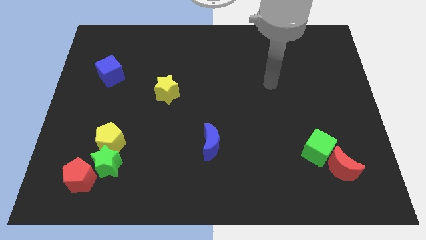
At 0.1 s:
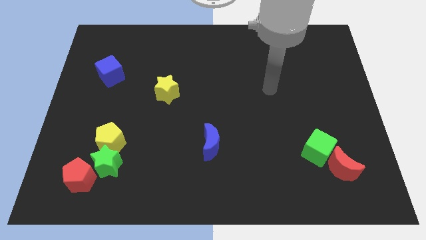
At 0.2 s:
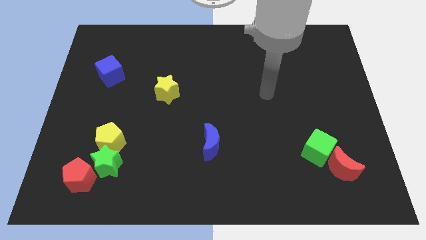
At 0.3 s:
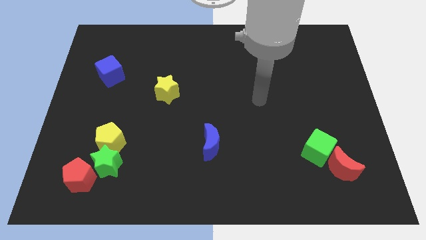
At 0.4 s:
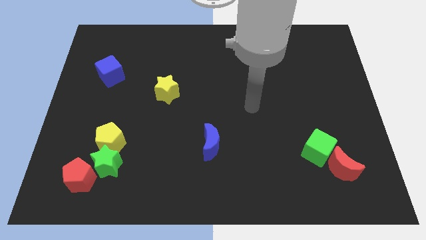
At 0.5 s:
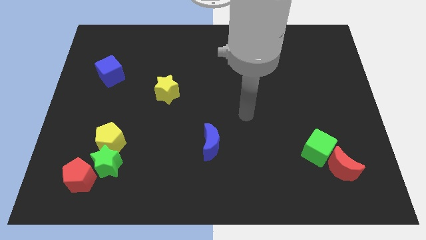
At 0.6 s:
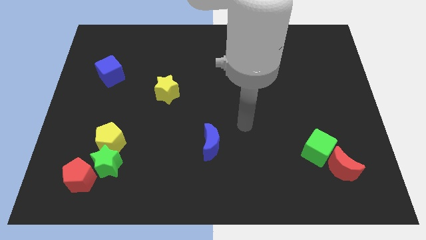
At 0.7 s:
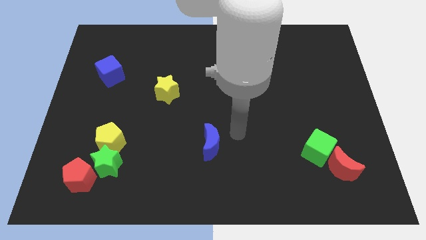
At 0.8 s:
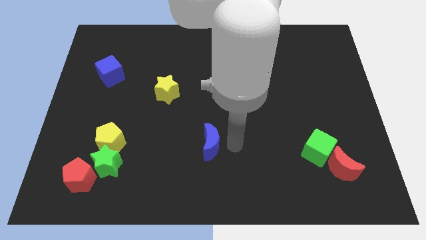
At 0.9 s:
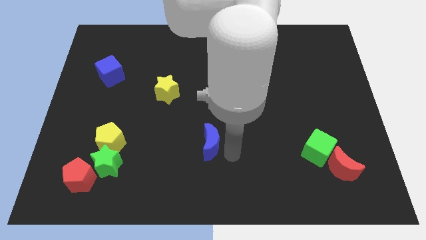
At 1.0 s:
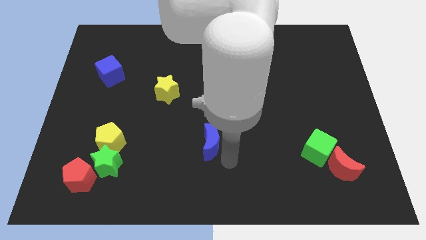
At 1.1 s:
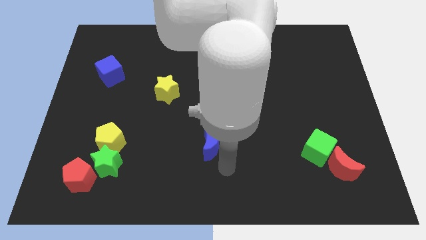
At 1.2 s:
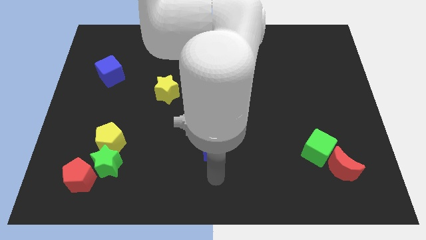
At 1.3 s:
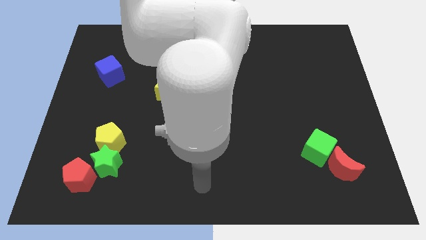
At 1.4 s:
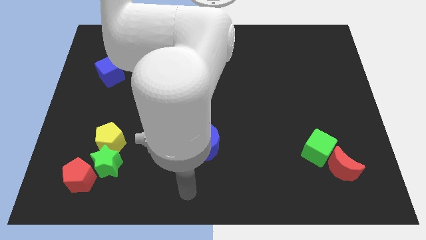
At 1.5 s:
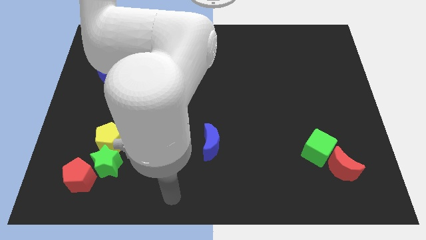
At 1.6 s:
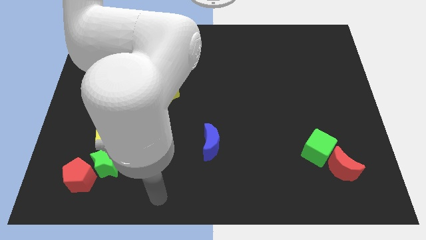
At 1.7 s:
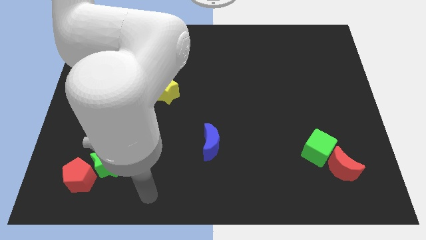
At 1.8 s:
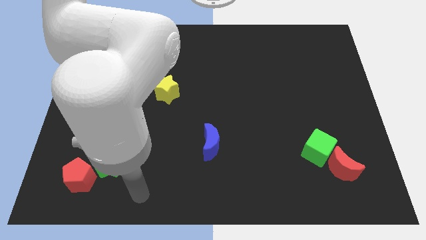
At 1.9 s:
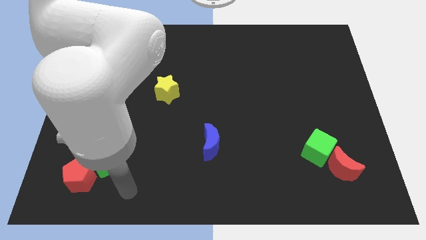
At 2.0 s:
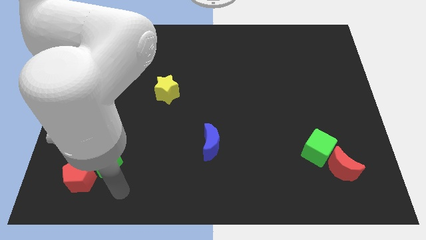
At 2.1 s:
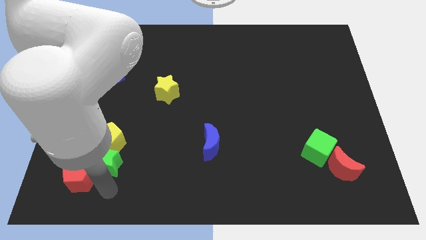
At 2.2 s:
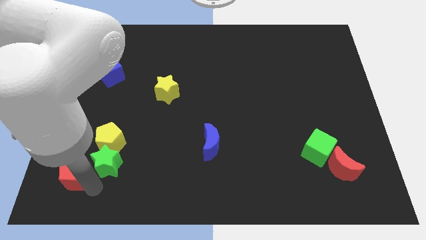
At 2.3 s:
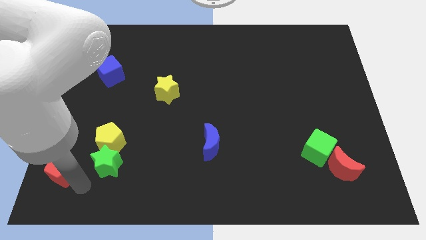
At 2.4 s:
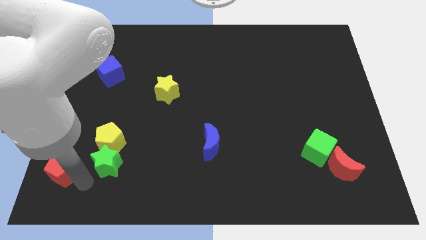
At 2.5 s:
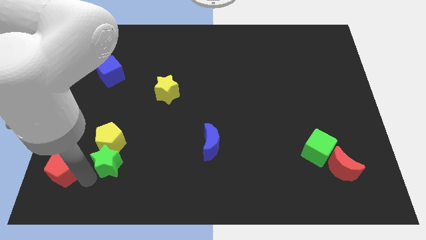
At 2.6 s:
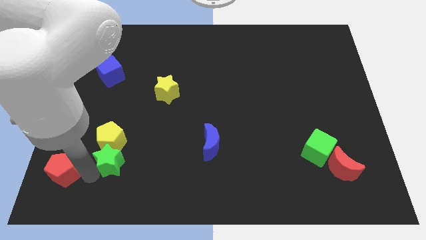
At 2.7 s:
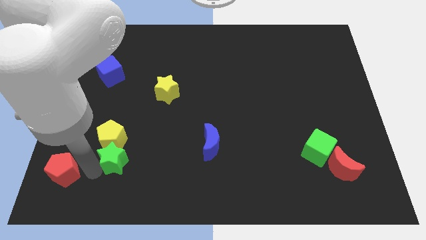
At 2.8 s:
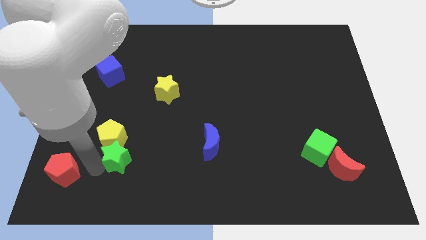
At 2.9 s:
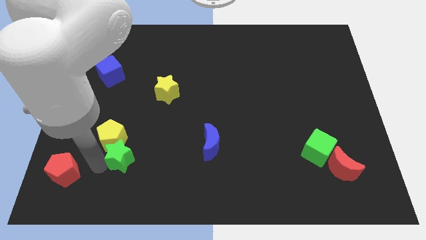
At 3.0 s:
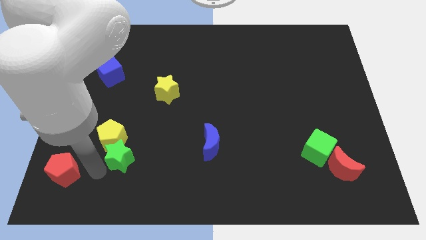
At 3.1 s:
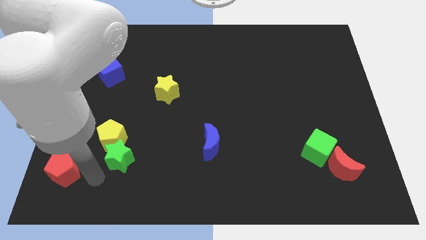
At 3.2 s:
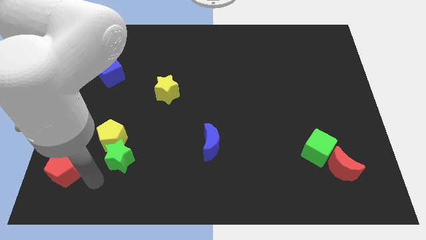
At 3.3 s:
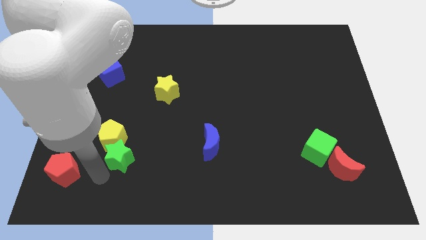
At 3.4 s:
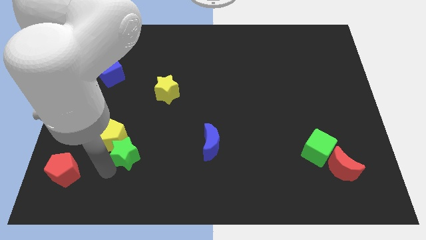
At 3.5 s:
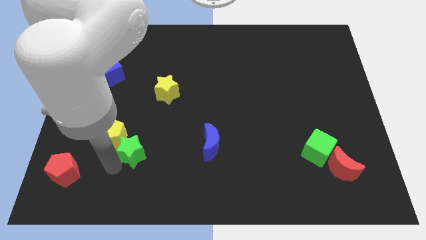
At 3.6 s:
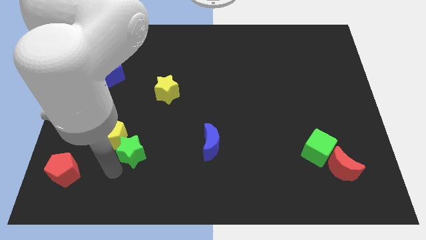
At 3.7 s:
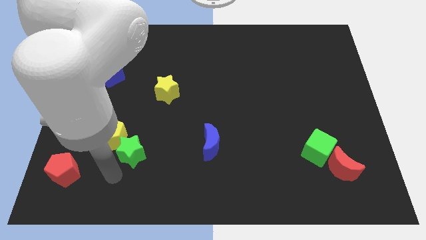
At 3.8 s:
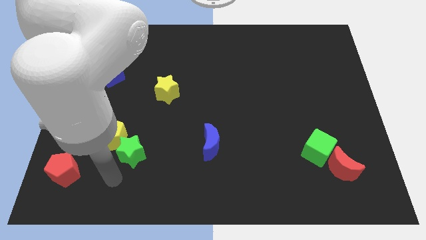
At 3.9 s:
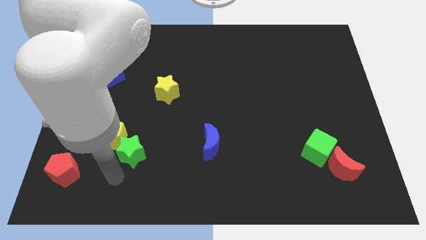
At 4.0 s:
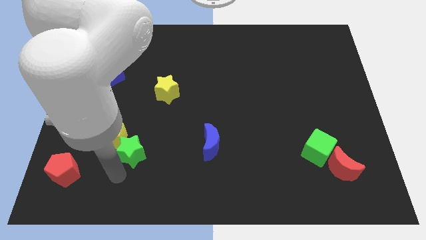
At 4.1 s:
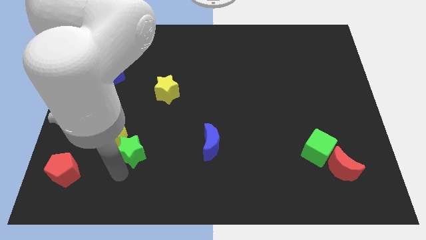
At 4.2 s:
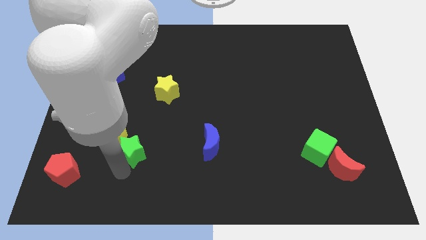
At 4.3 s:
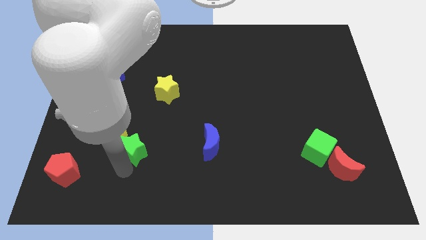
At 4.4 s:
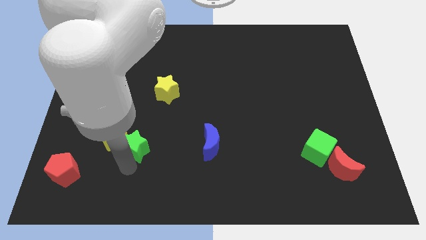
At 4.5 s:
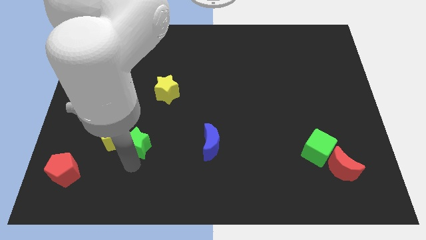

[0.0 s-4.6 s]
slightly slide the green star diagonally upwards and right

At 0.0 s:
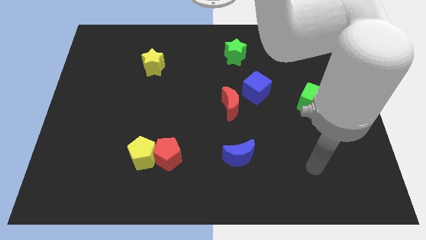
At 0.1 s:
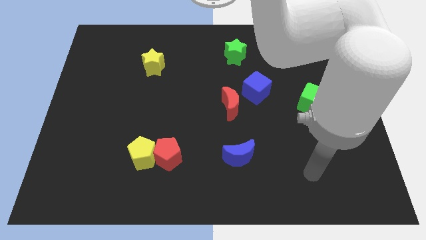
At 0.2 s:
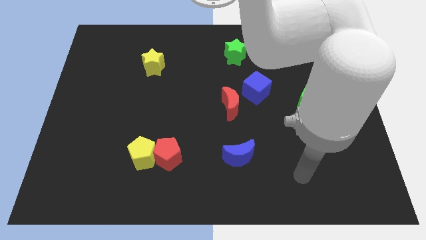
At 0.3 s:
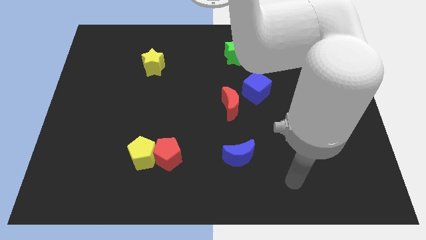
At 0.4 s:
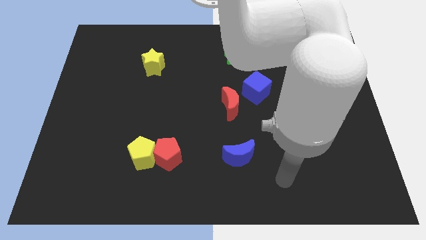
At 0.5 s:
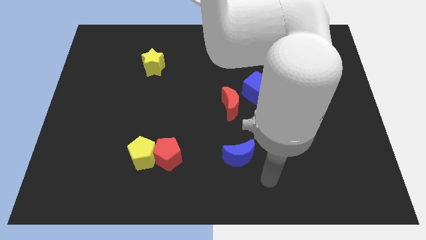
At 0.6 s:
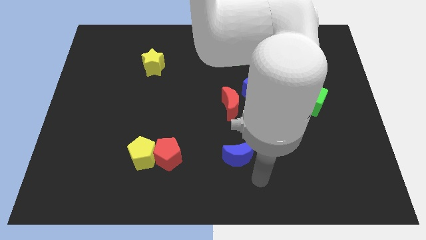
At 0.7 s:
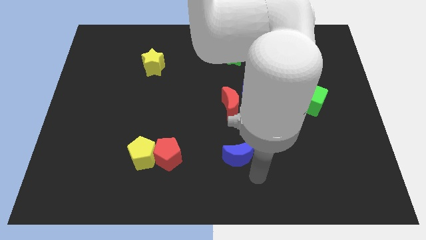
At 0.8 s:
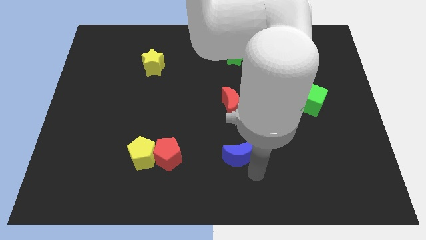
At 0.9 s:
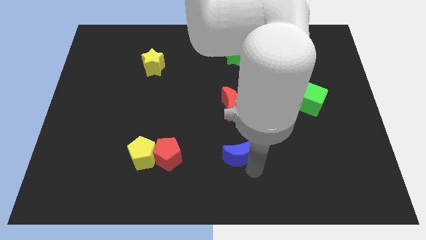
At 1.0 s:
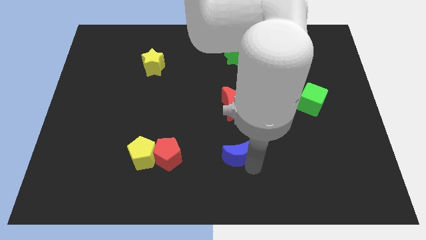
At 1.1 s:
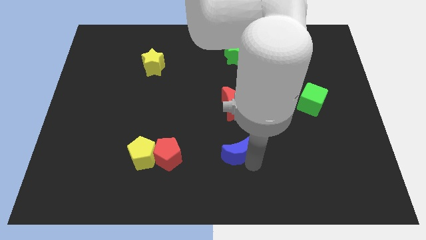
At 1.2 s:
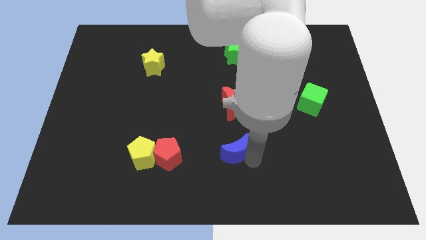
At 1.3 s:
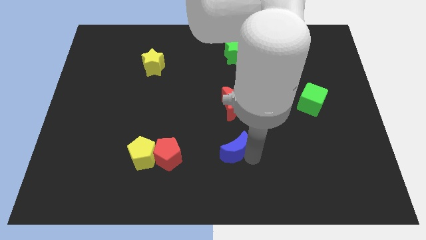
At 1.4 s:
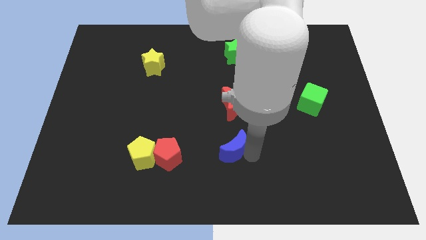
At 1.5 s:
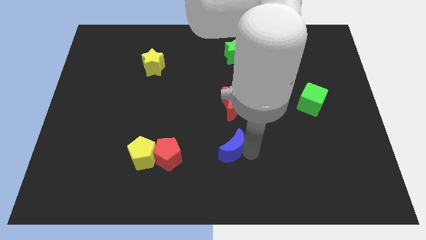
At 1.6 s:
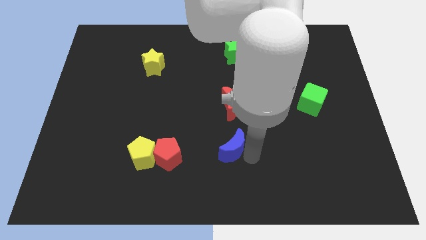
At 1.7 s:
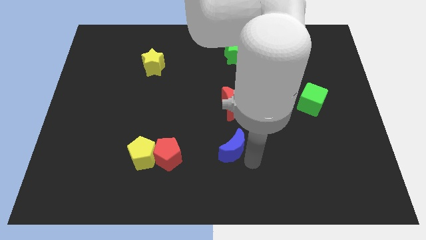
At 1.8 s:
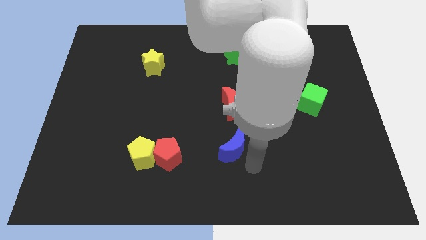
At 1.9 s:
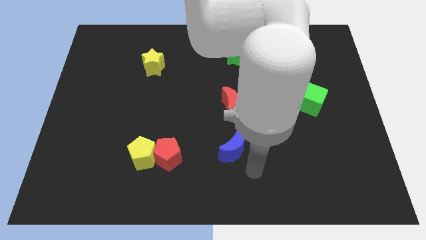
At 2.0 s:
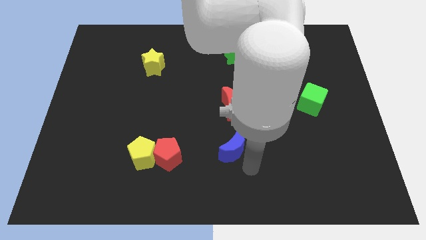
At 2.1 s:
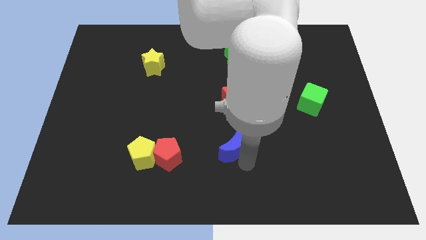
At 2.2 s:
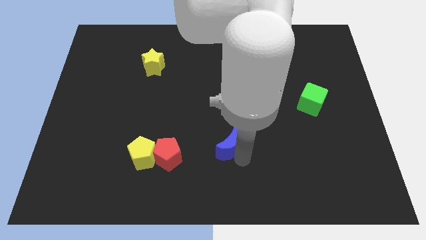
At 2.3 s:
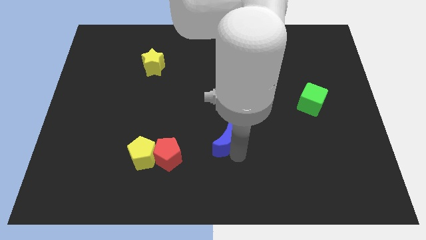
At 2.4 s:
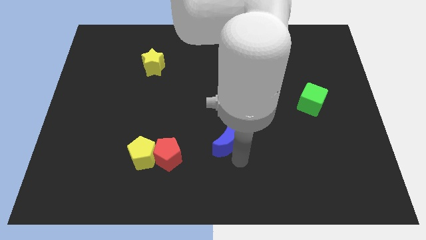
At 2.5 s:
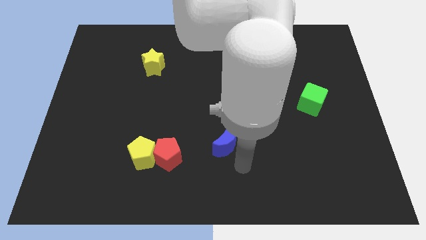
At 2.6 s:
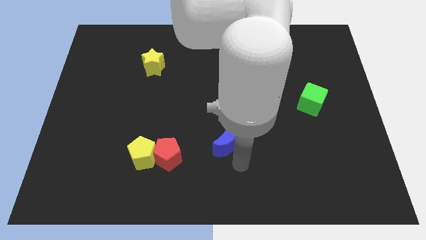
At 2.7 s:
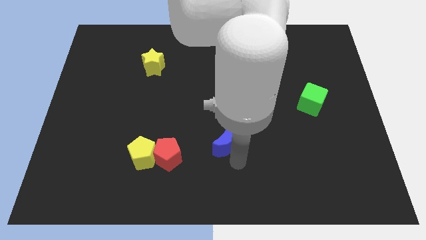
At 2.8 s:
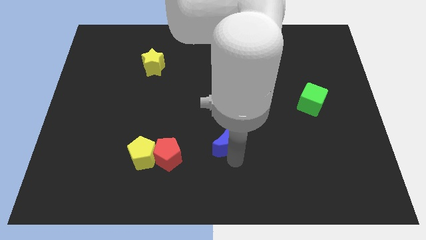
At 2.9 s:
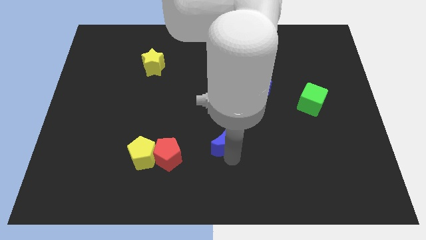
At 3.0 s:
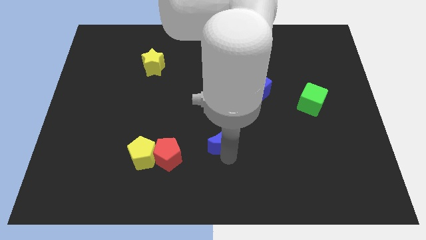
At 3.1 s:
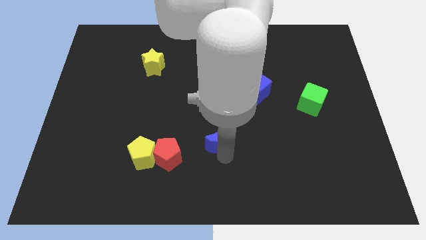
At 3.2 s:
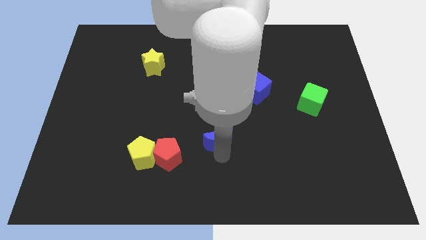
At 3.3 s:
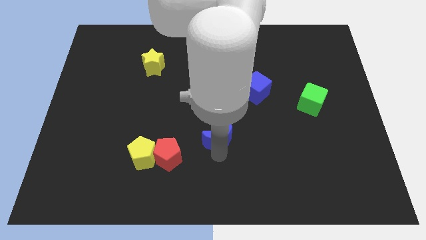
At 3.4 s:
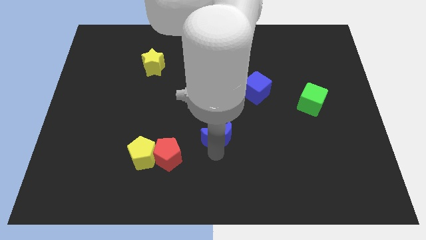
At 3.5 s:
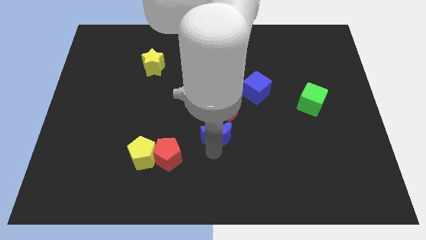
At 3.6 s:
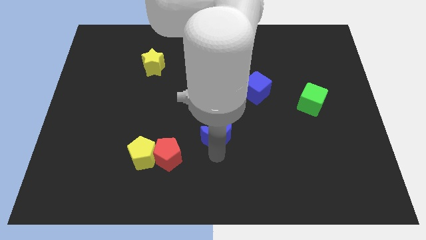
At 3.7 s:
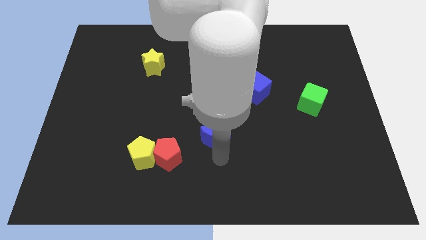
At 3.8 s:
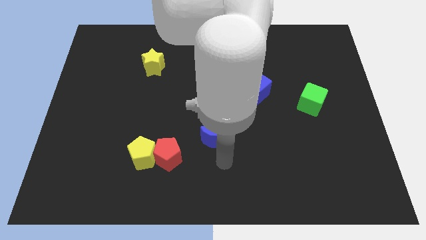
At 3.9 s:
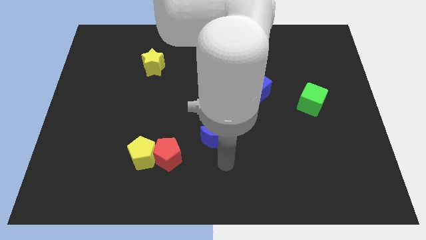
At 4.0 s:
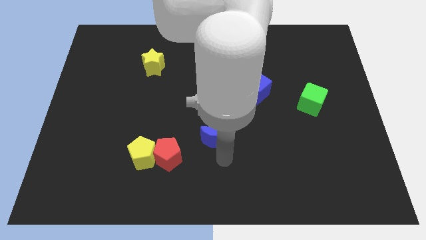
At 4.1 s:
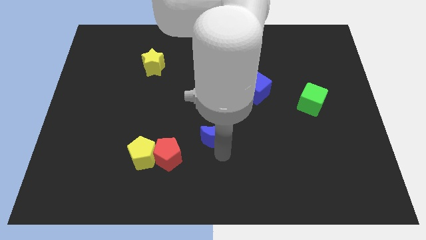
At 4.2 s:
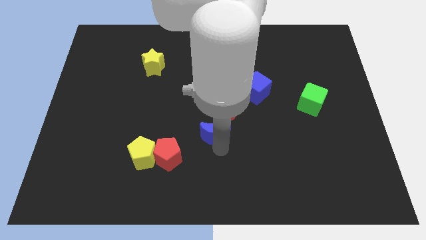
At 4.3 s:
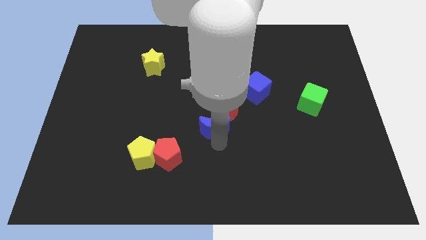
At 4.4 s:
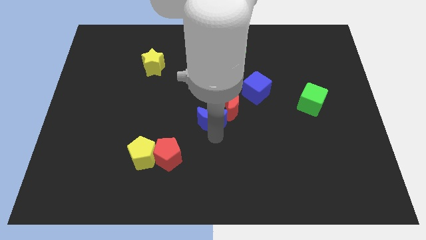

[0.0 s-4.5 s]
slightly move the blue moon up
